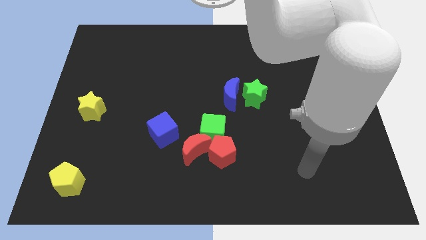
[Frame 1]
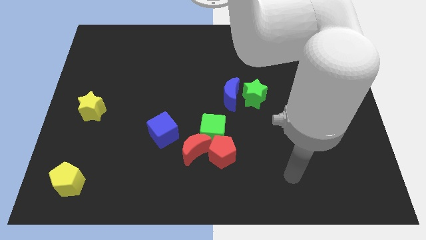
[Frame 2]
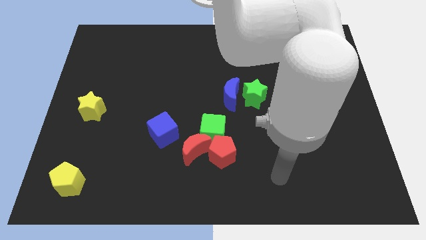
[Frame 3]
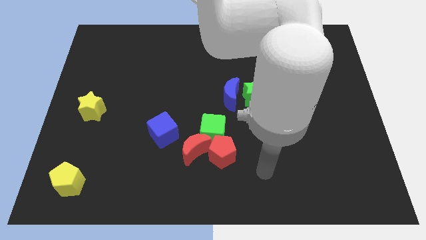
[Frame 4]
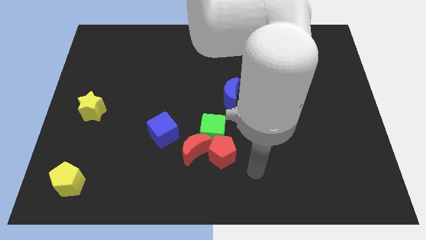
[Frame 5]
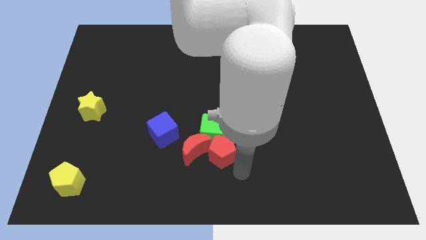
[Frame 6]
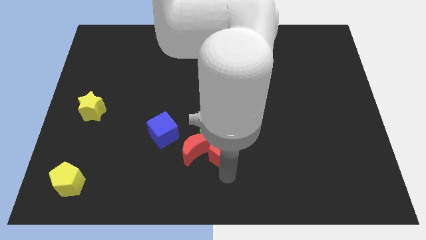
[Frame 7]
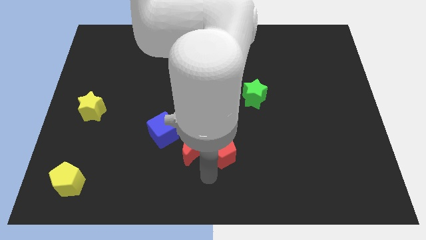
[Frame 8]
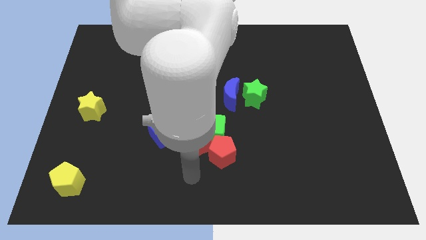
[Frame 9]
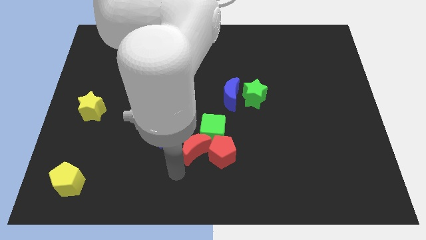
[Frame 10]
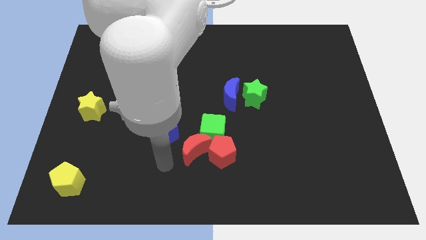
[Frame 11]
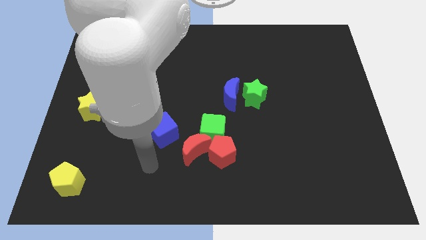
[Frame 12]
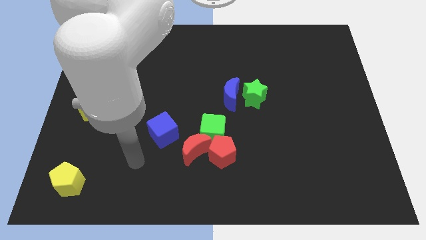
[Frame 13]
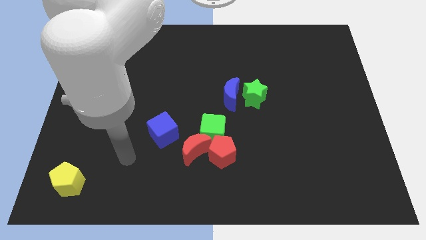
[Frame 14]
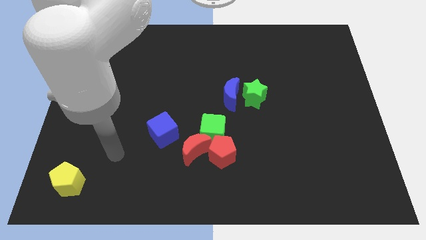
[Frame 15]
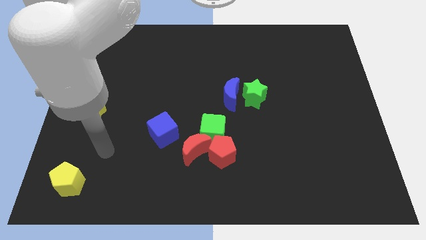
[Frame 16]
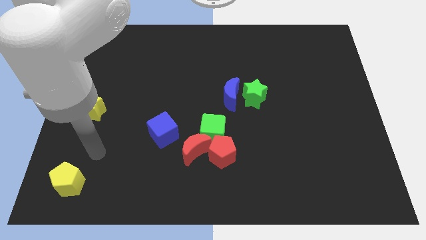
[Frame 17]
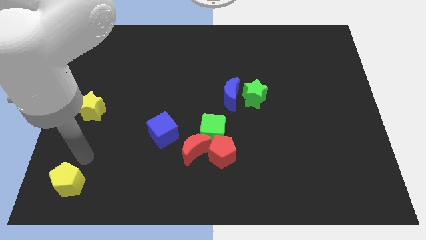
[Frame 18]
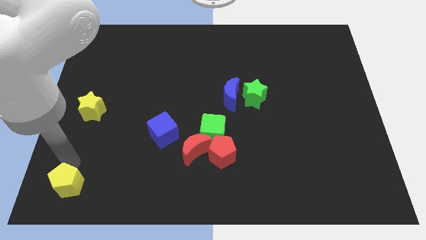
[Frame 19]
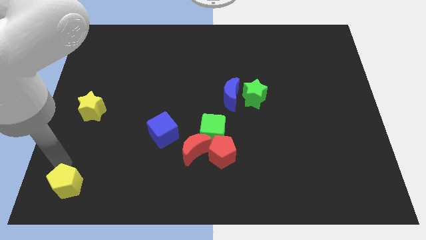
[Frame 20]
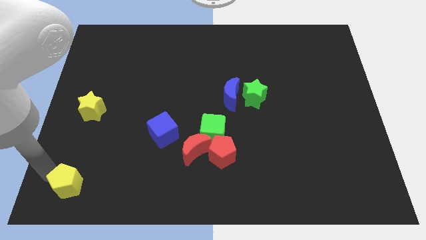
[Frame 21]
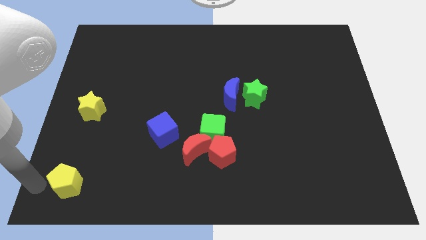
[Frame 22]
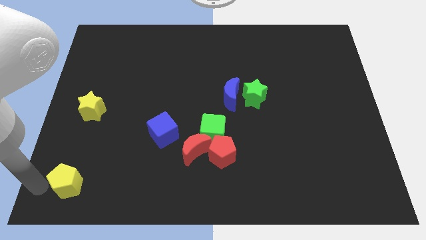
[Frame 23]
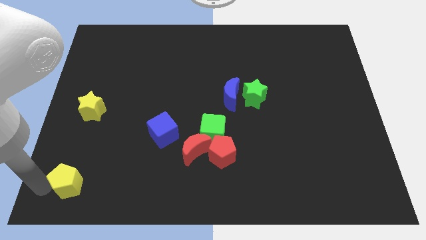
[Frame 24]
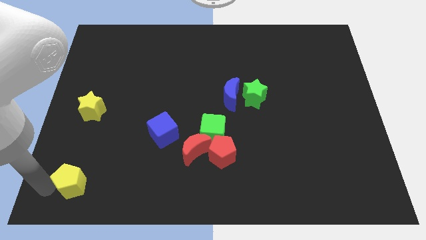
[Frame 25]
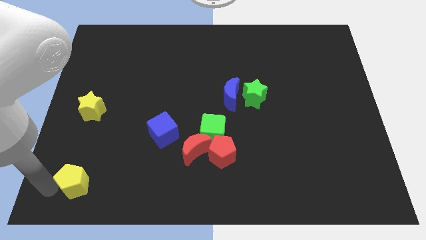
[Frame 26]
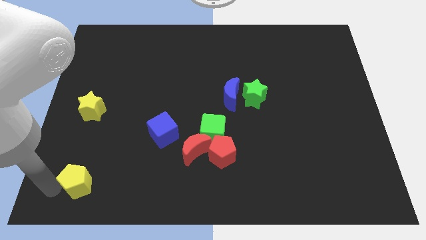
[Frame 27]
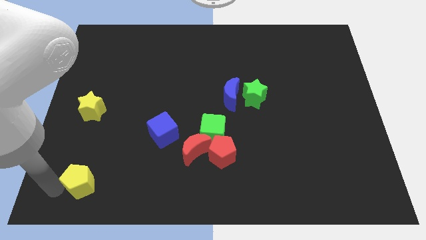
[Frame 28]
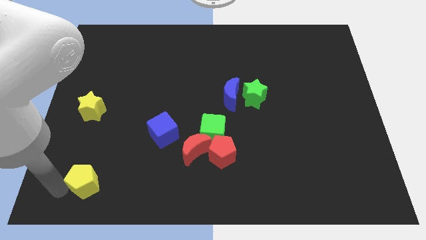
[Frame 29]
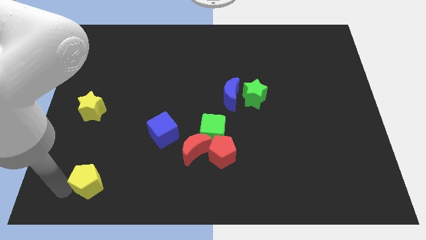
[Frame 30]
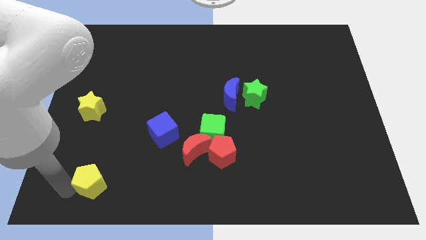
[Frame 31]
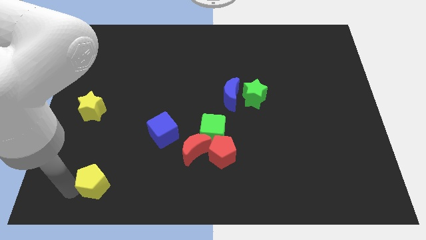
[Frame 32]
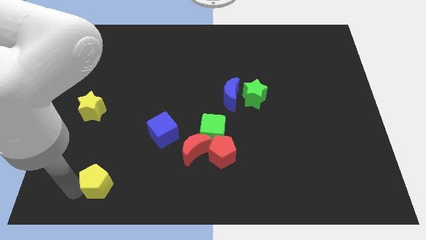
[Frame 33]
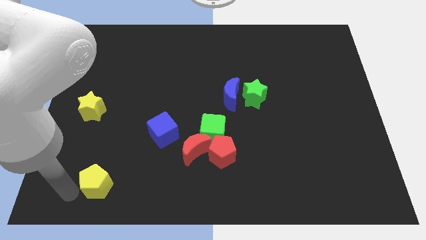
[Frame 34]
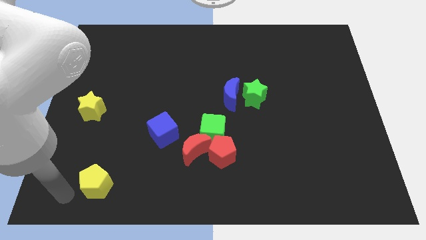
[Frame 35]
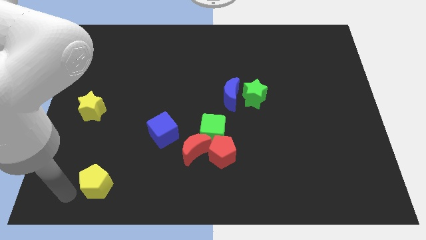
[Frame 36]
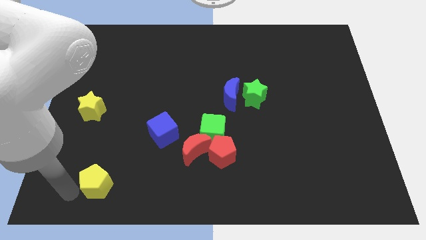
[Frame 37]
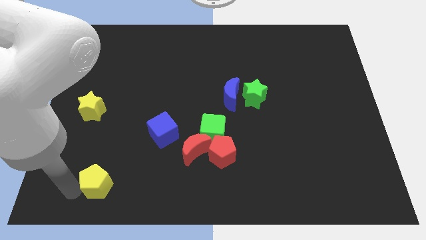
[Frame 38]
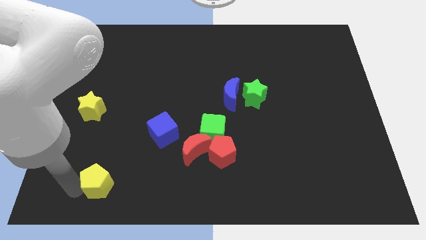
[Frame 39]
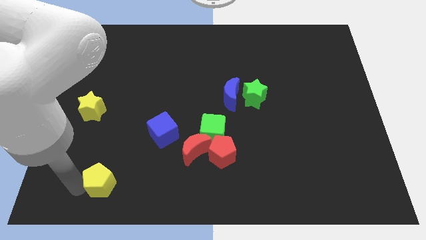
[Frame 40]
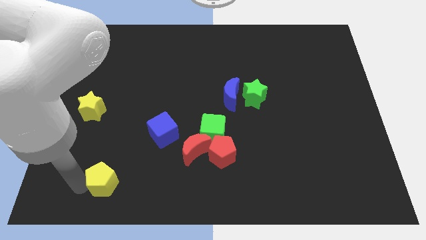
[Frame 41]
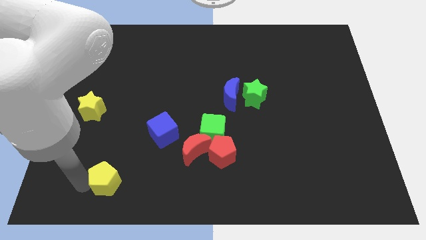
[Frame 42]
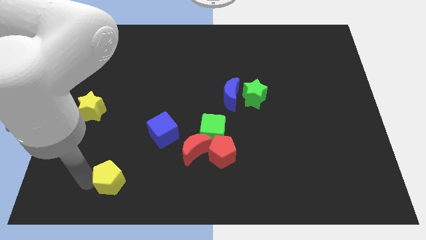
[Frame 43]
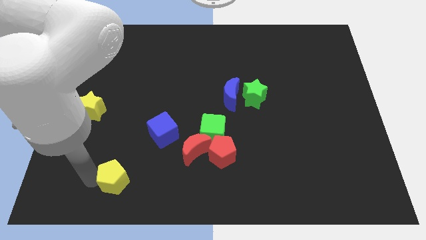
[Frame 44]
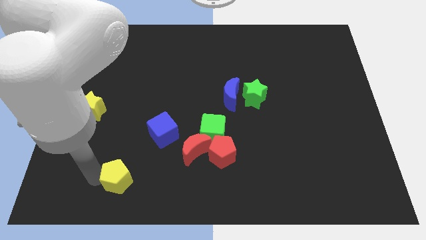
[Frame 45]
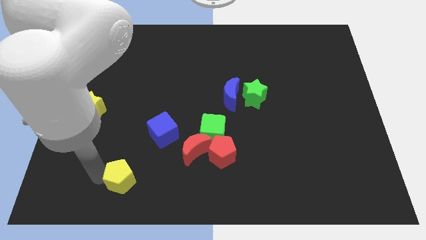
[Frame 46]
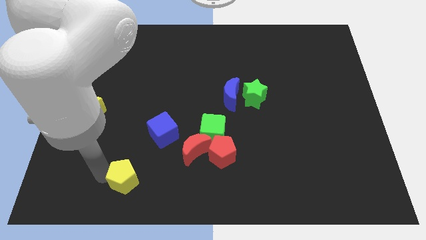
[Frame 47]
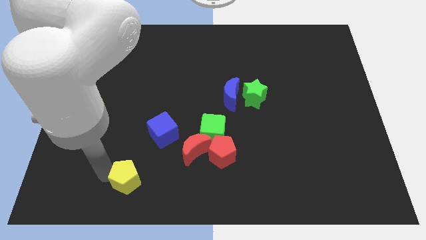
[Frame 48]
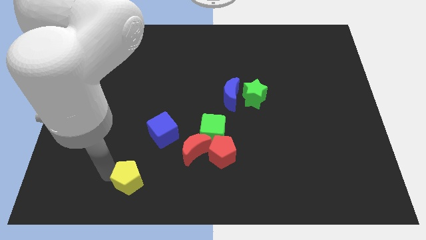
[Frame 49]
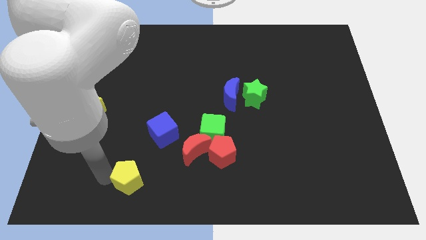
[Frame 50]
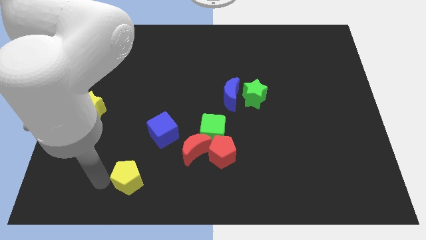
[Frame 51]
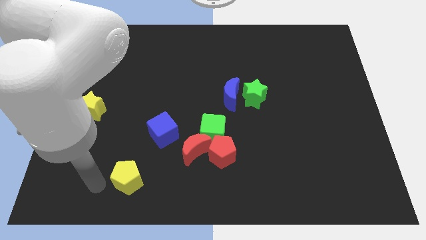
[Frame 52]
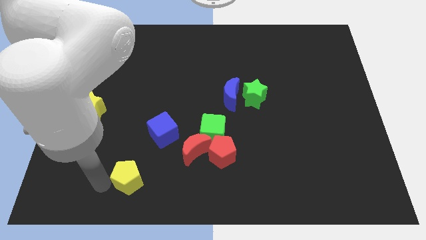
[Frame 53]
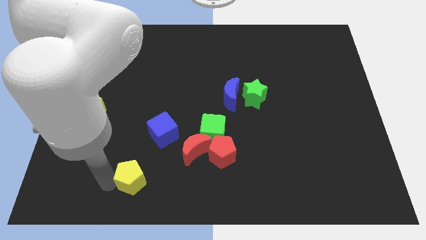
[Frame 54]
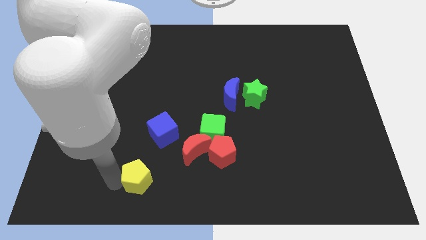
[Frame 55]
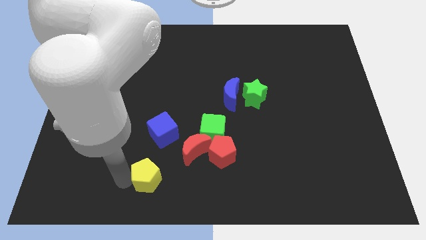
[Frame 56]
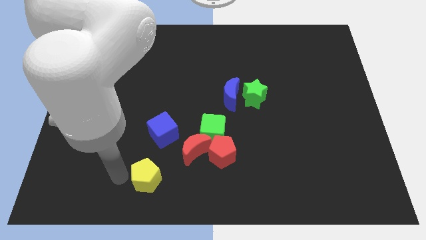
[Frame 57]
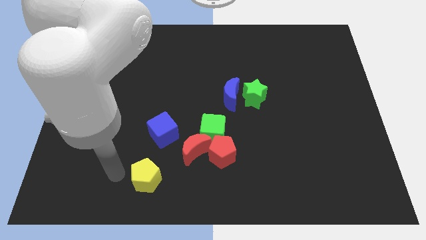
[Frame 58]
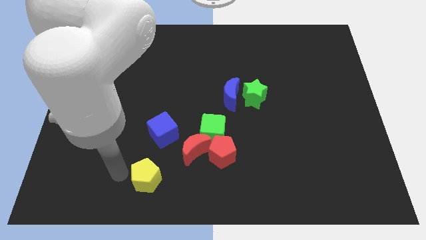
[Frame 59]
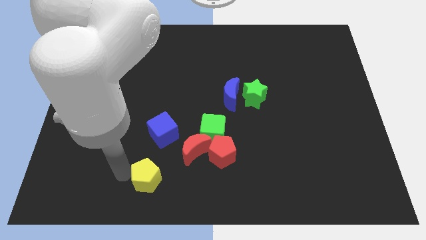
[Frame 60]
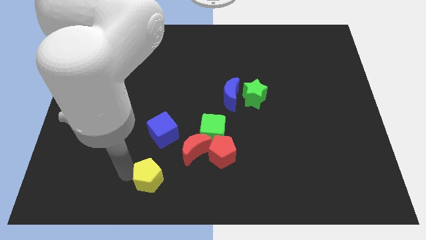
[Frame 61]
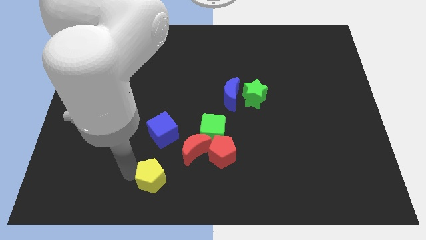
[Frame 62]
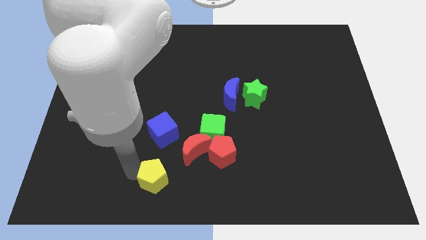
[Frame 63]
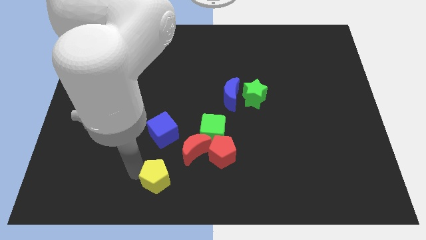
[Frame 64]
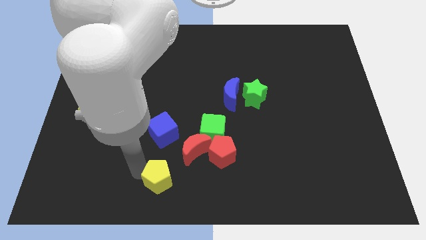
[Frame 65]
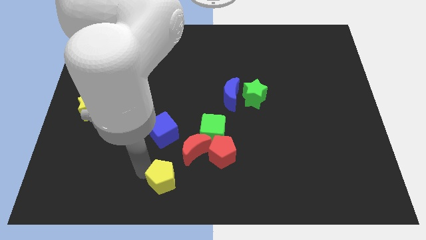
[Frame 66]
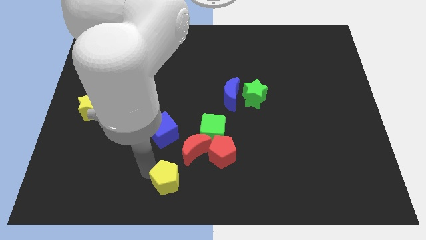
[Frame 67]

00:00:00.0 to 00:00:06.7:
slide the yellow pentagon to the right

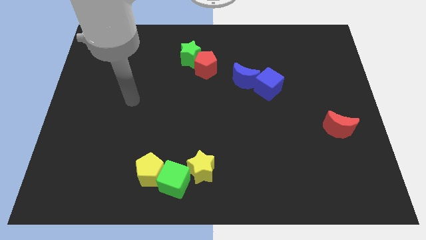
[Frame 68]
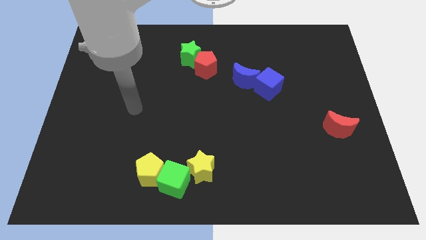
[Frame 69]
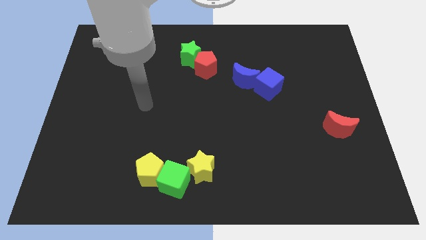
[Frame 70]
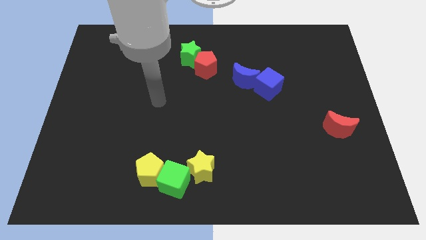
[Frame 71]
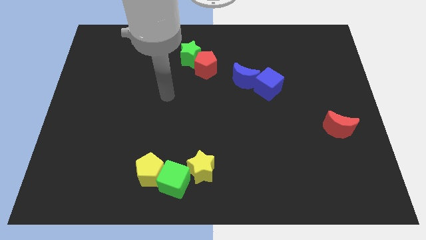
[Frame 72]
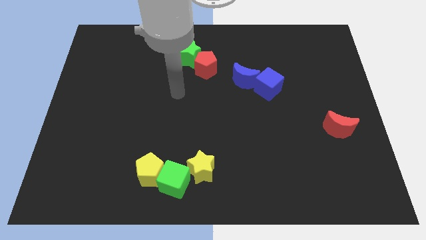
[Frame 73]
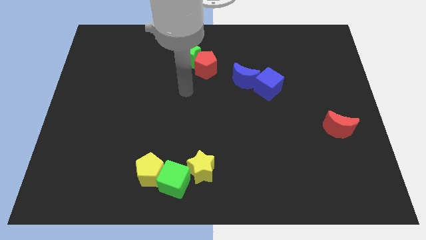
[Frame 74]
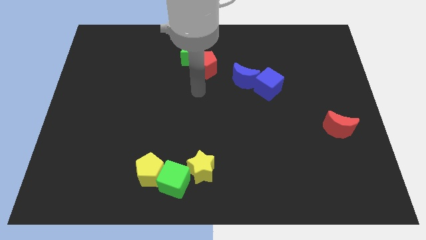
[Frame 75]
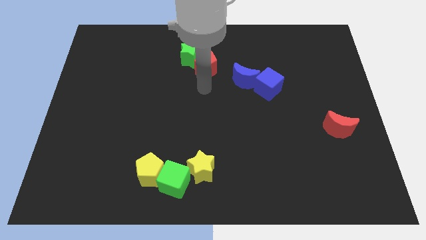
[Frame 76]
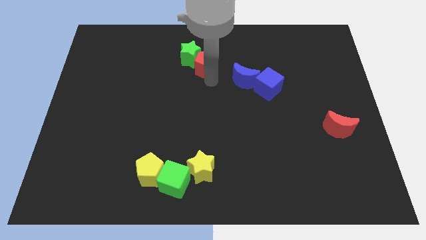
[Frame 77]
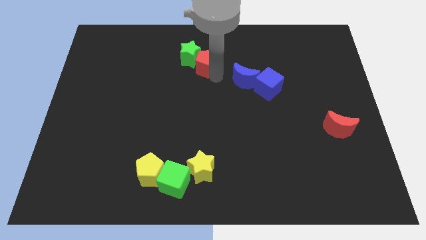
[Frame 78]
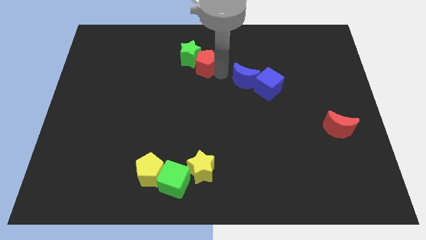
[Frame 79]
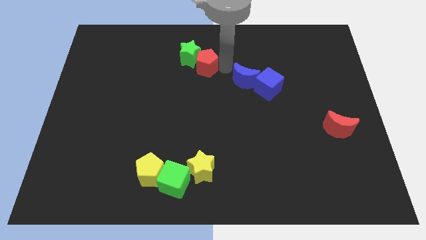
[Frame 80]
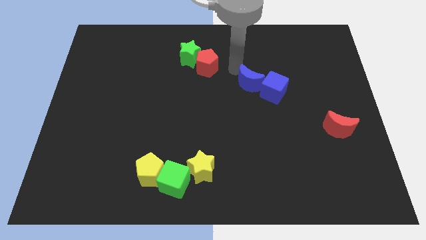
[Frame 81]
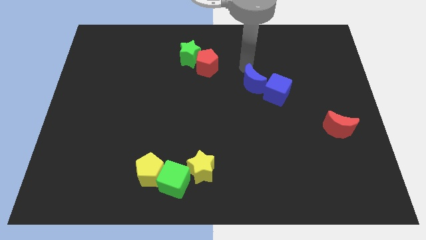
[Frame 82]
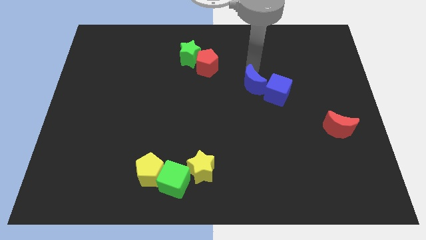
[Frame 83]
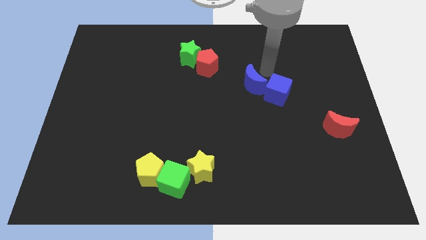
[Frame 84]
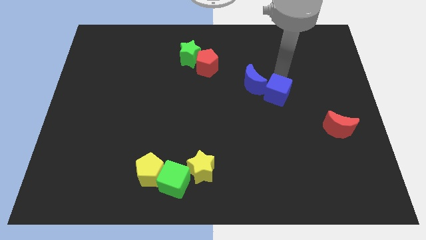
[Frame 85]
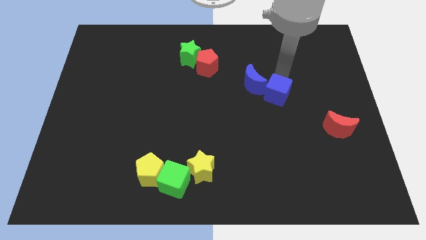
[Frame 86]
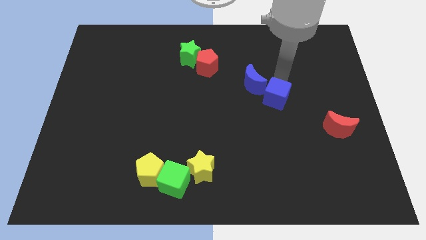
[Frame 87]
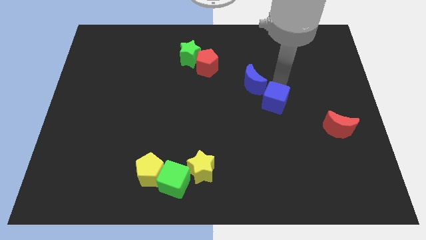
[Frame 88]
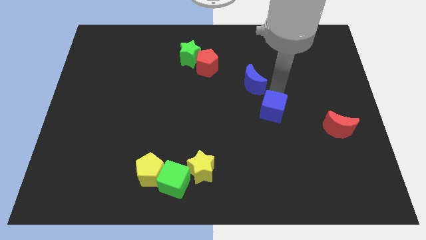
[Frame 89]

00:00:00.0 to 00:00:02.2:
move the blue cube a little bit downwards
